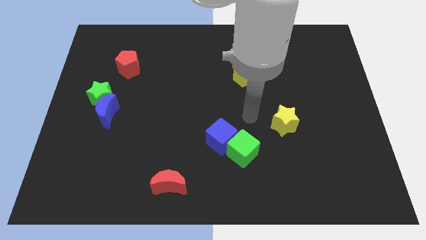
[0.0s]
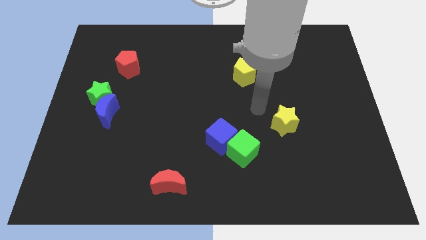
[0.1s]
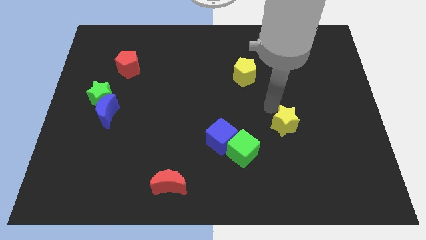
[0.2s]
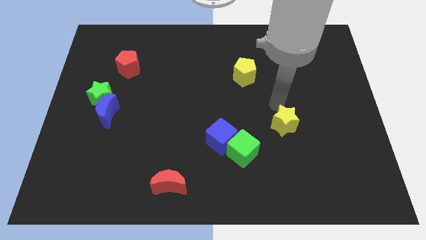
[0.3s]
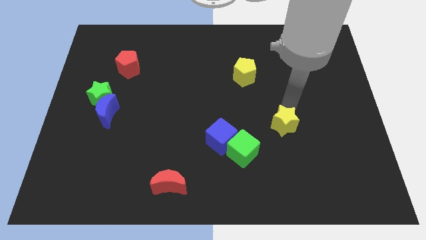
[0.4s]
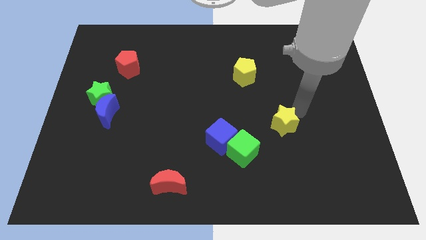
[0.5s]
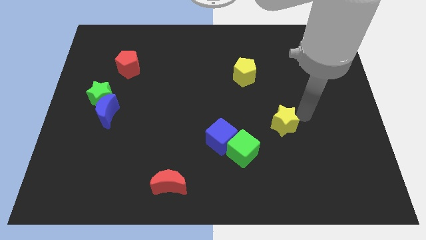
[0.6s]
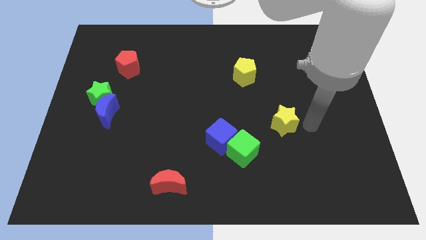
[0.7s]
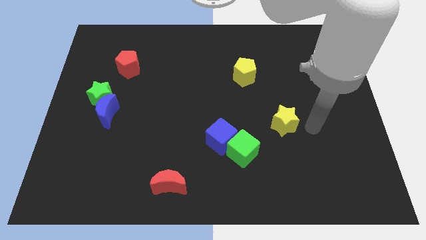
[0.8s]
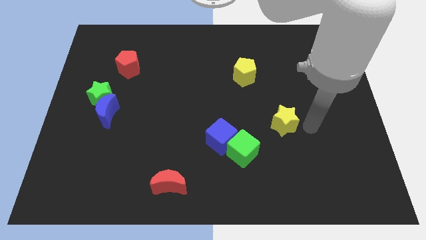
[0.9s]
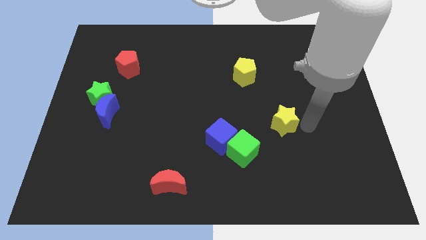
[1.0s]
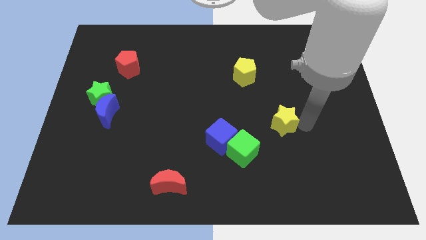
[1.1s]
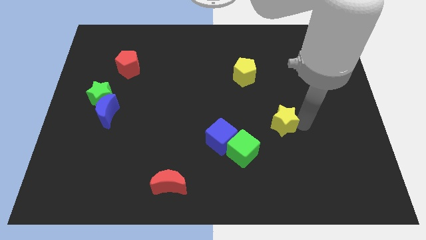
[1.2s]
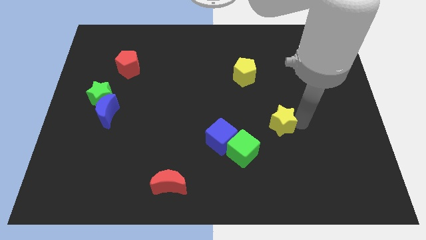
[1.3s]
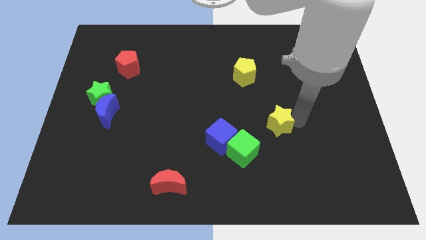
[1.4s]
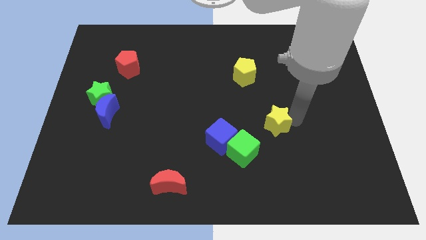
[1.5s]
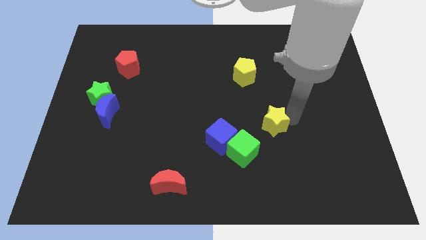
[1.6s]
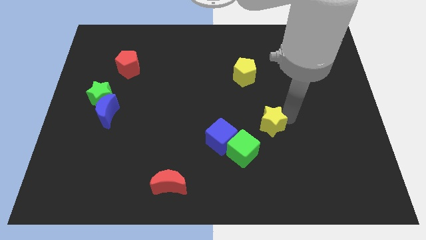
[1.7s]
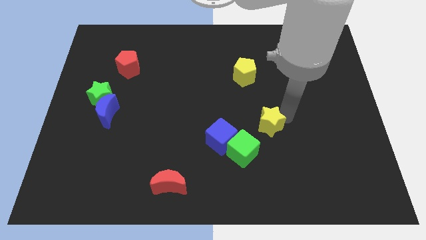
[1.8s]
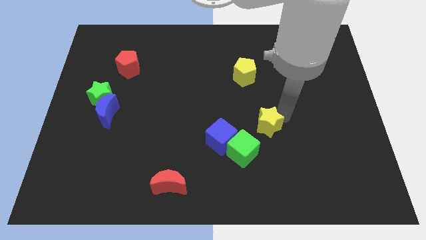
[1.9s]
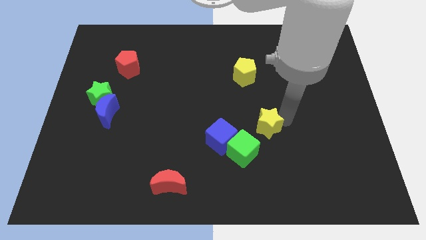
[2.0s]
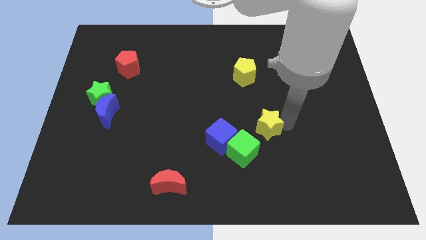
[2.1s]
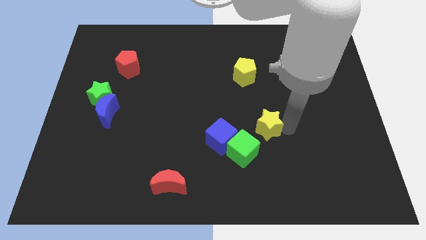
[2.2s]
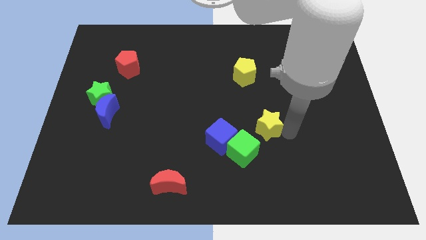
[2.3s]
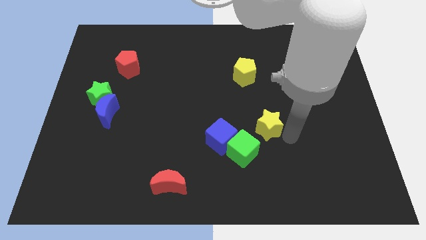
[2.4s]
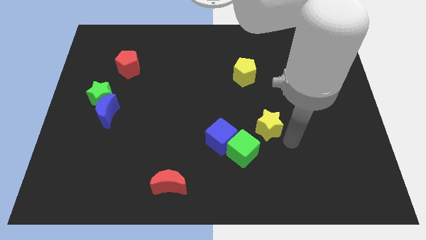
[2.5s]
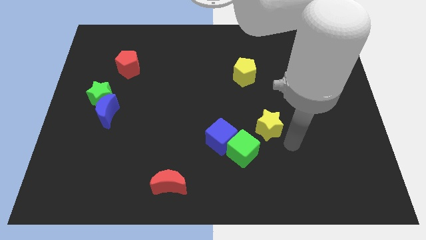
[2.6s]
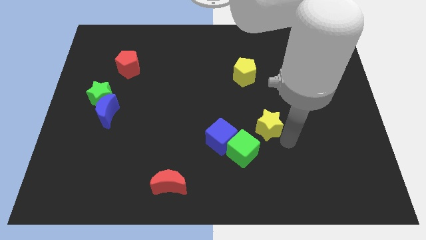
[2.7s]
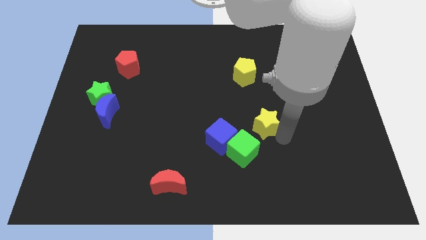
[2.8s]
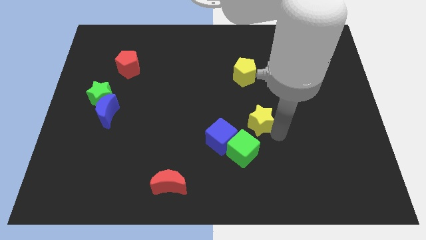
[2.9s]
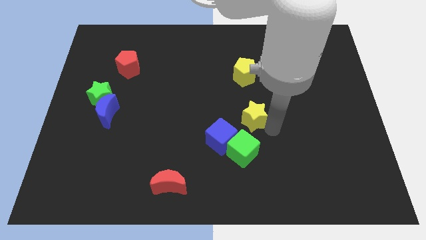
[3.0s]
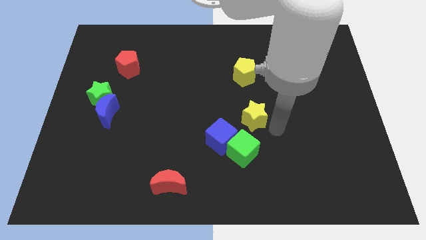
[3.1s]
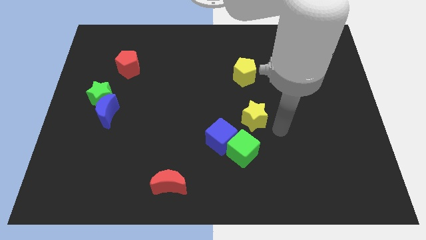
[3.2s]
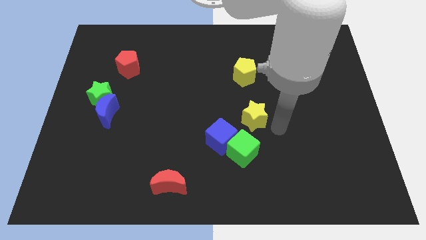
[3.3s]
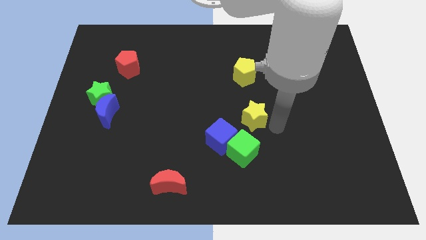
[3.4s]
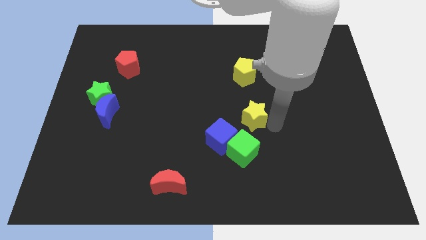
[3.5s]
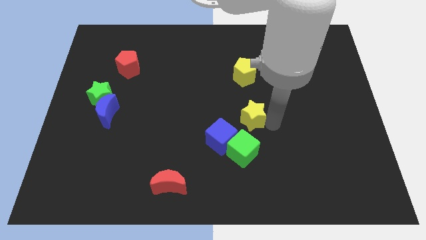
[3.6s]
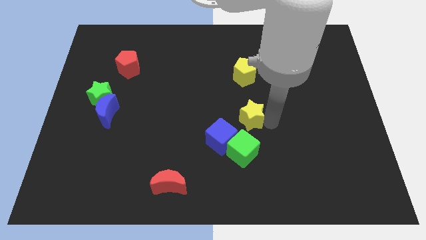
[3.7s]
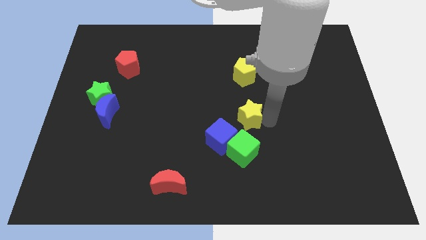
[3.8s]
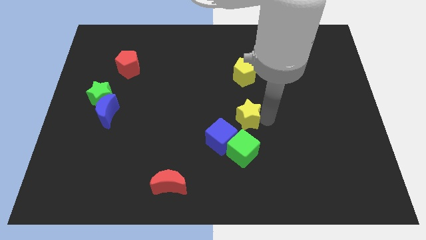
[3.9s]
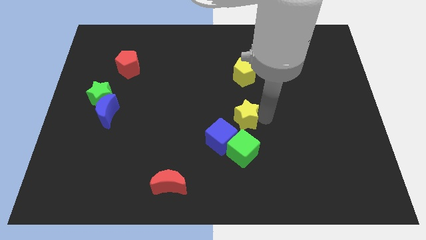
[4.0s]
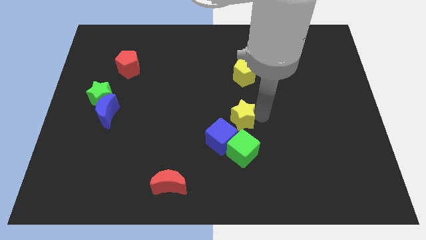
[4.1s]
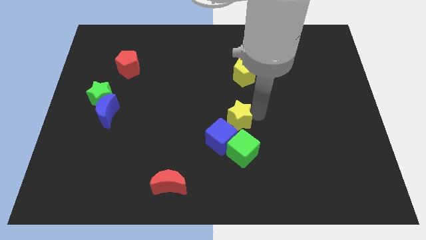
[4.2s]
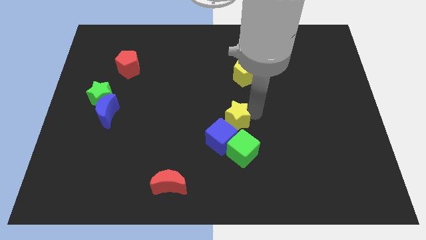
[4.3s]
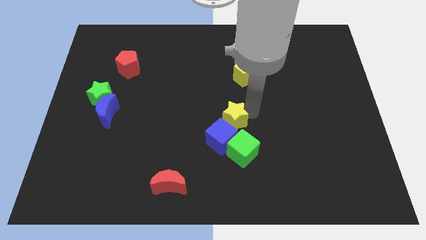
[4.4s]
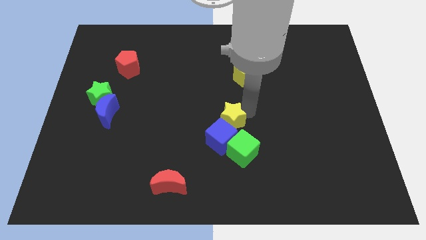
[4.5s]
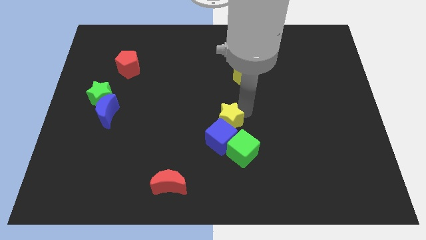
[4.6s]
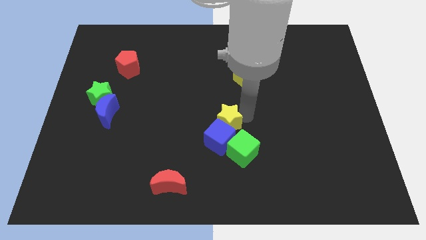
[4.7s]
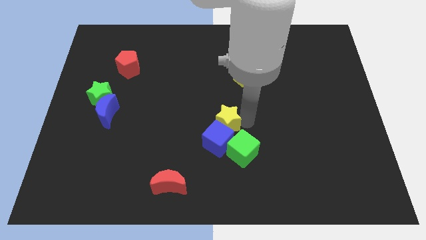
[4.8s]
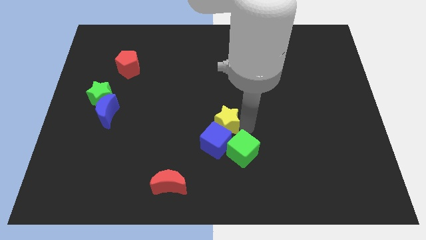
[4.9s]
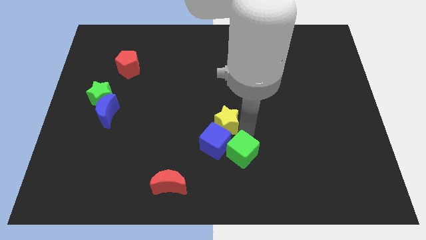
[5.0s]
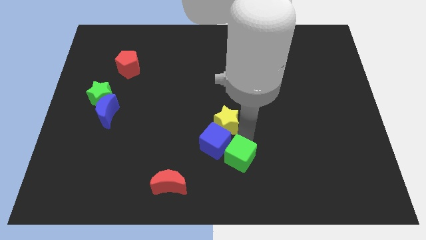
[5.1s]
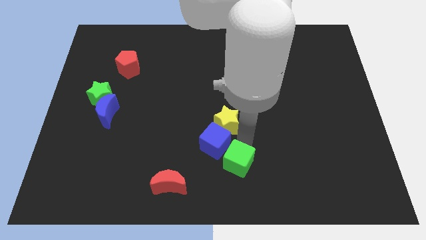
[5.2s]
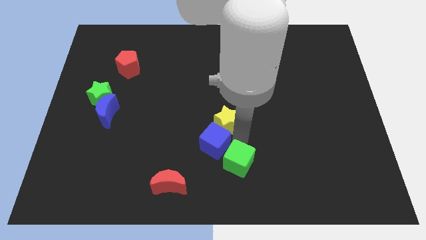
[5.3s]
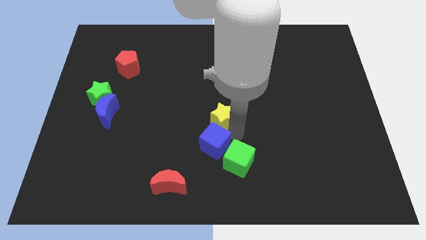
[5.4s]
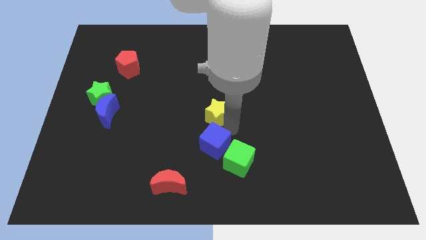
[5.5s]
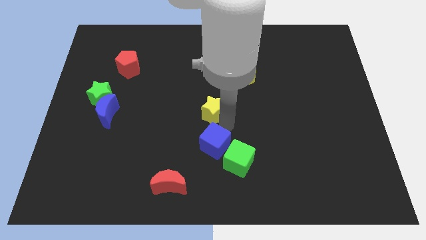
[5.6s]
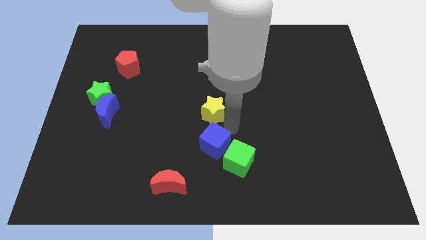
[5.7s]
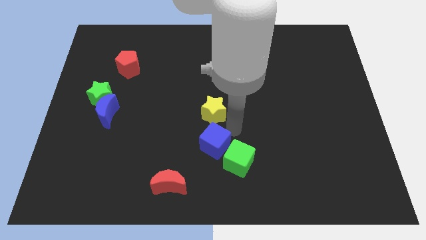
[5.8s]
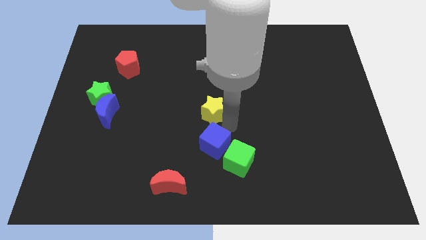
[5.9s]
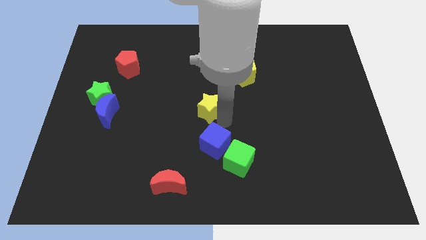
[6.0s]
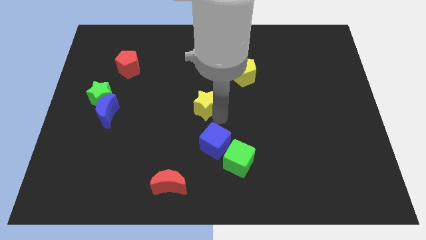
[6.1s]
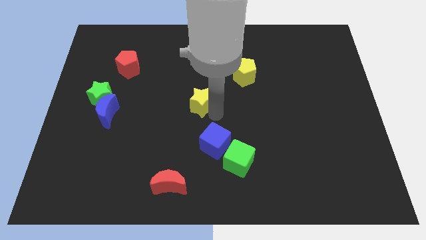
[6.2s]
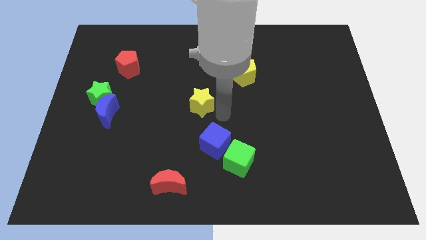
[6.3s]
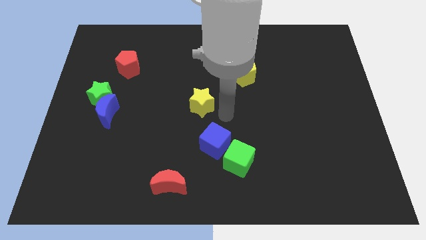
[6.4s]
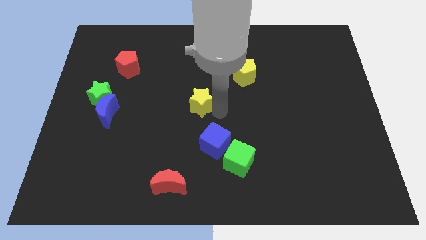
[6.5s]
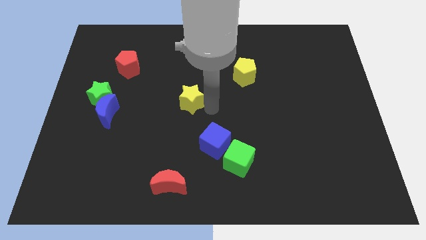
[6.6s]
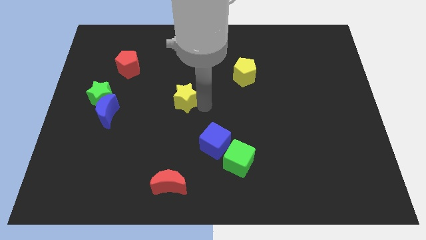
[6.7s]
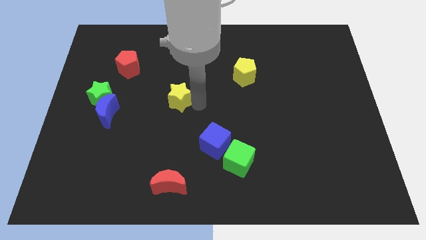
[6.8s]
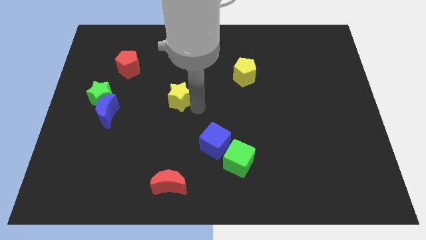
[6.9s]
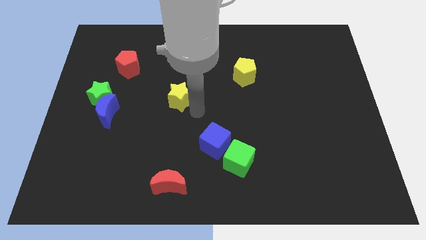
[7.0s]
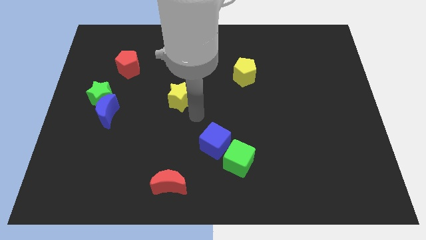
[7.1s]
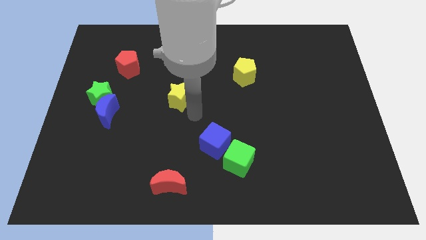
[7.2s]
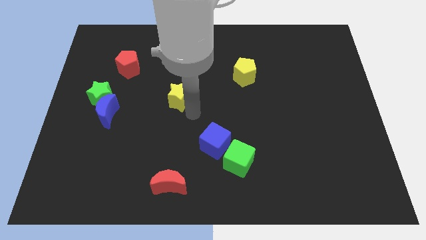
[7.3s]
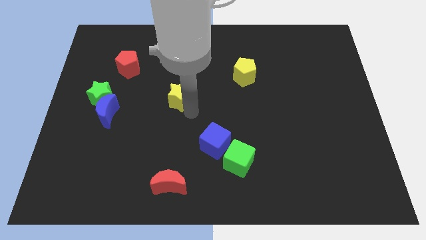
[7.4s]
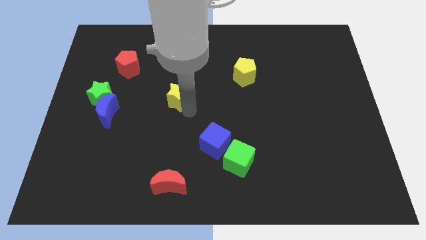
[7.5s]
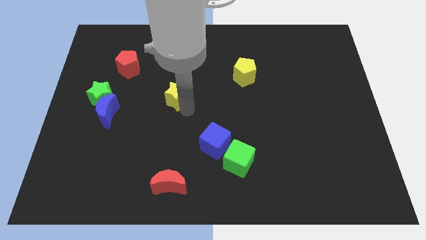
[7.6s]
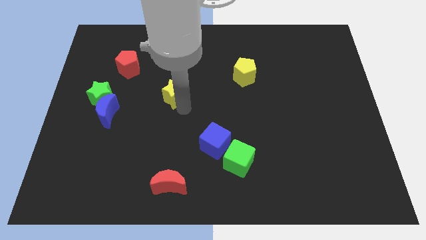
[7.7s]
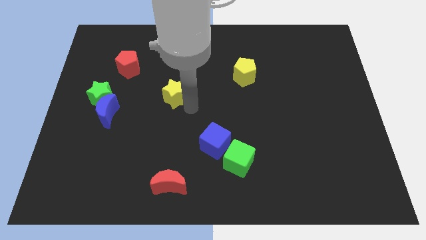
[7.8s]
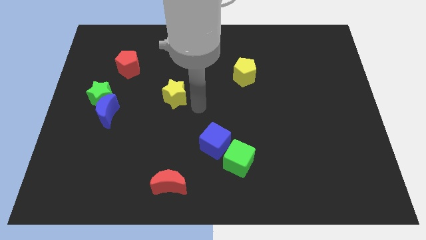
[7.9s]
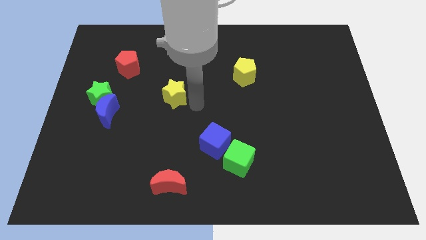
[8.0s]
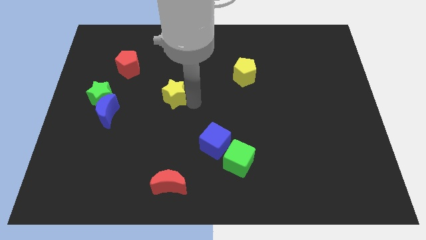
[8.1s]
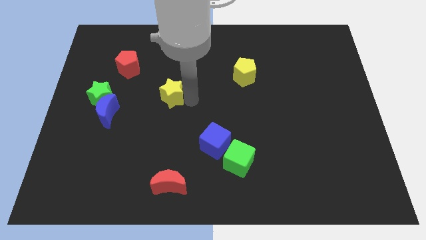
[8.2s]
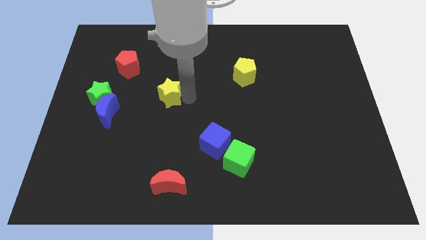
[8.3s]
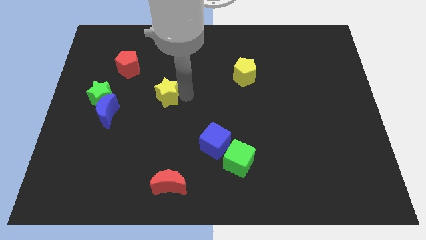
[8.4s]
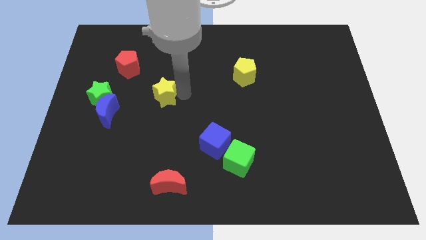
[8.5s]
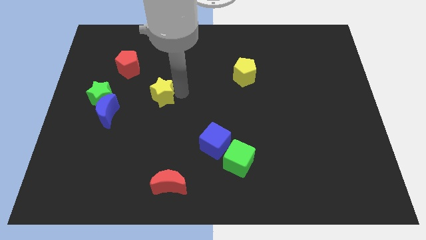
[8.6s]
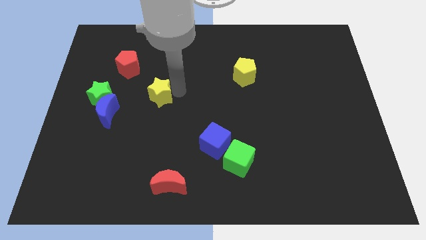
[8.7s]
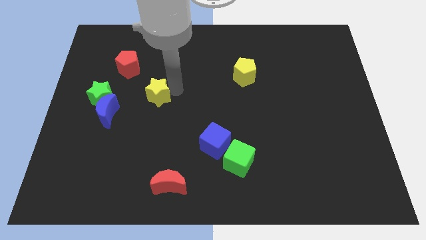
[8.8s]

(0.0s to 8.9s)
put the yellow star diagonally down and to the right of the red pentagon
